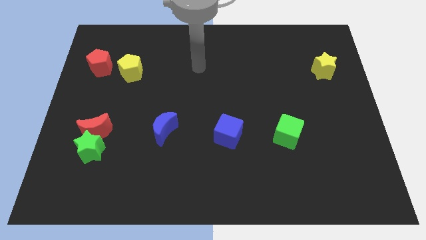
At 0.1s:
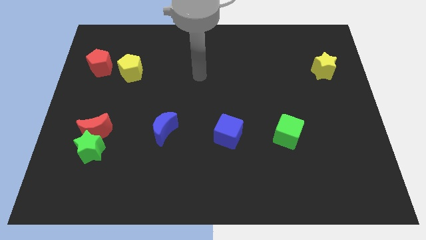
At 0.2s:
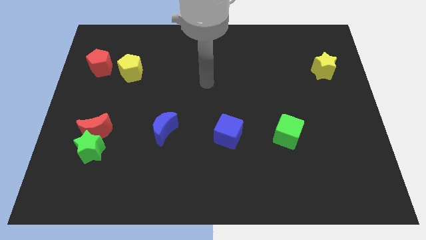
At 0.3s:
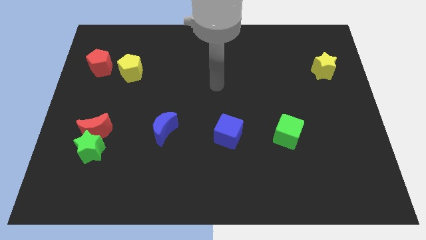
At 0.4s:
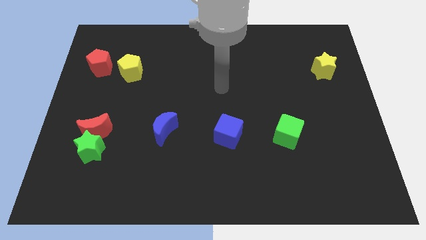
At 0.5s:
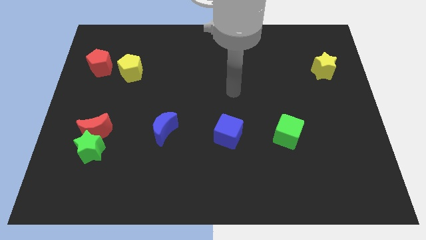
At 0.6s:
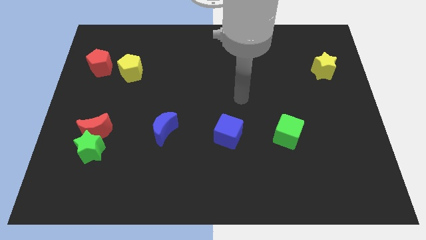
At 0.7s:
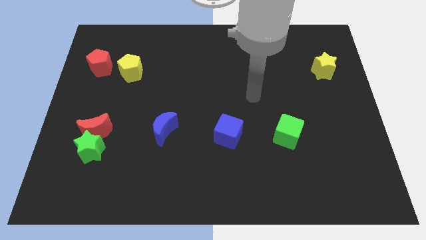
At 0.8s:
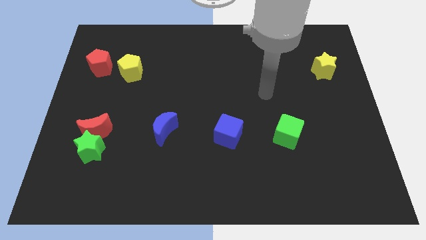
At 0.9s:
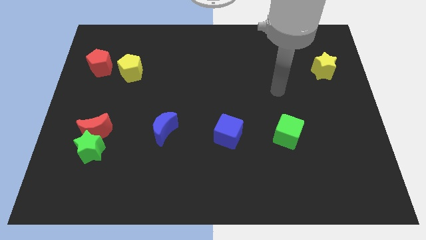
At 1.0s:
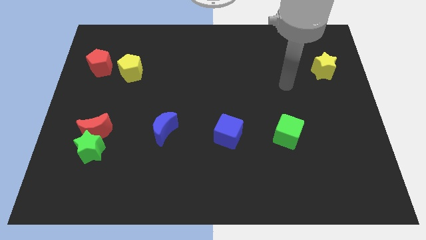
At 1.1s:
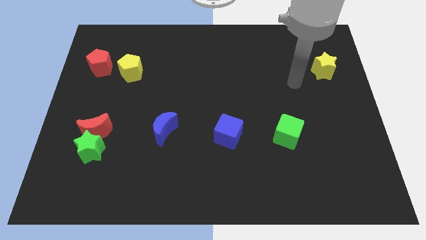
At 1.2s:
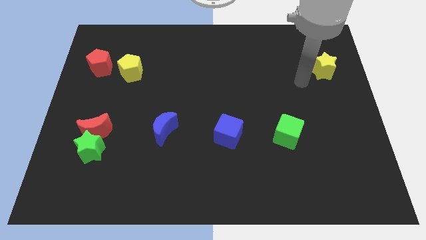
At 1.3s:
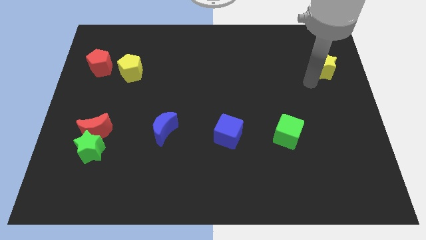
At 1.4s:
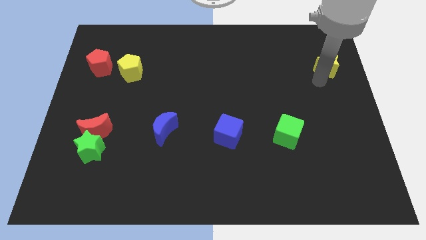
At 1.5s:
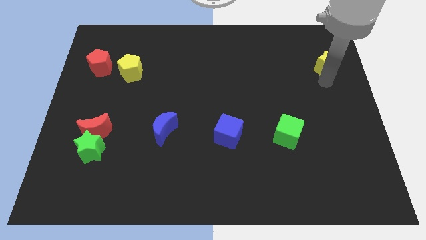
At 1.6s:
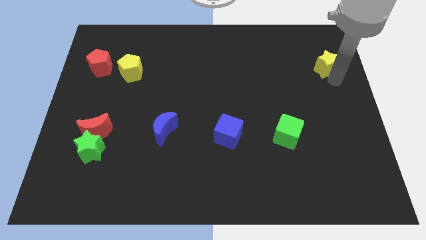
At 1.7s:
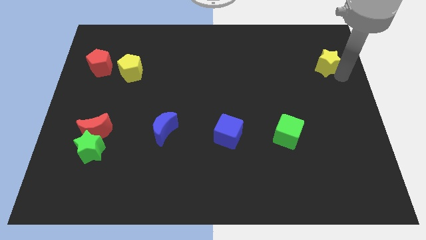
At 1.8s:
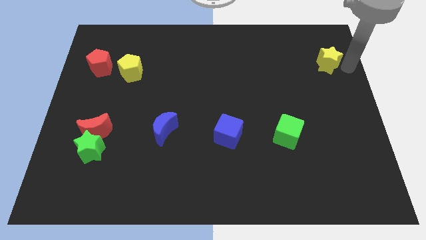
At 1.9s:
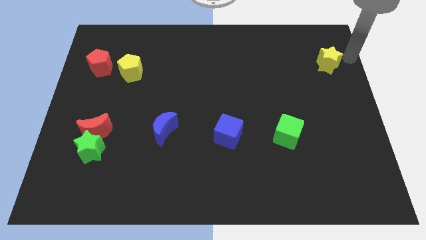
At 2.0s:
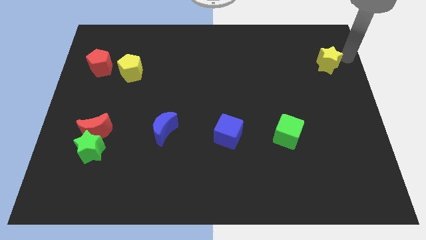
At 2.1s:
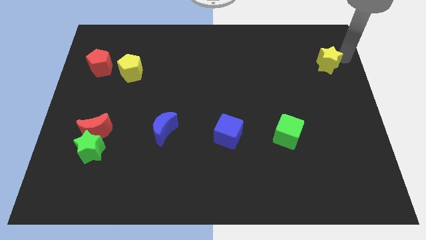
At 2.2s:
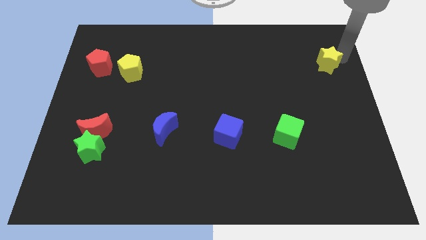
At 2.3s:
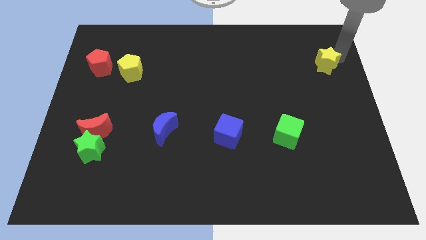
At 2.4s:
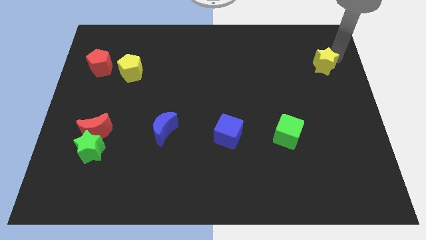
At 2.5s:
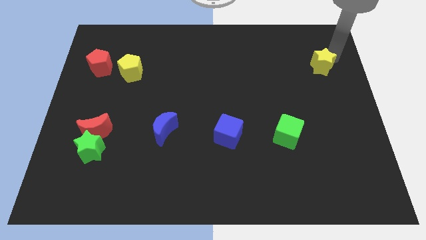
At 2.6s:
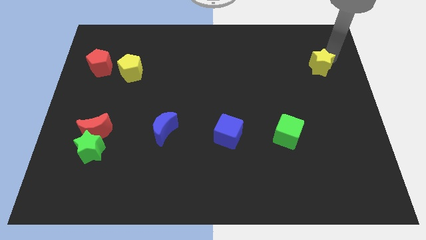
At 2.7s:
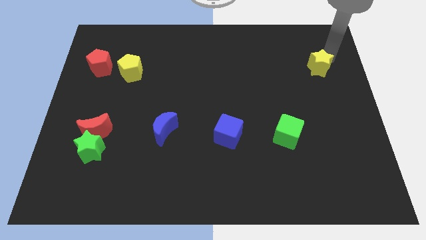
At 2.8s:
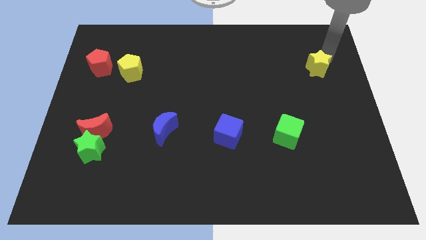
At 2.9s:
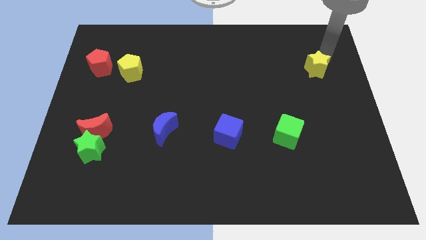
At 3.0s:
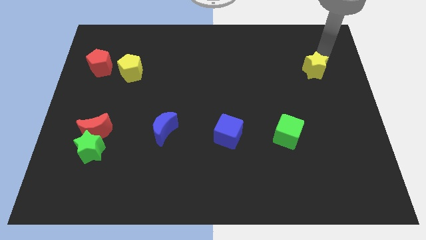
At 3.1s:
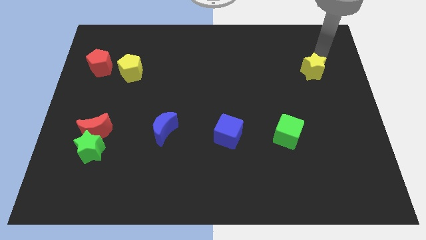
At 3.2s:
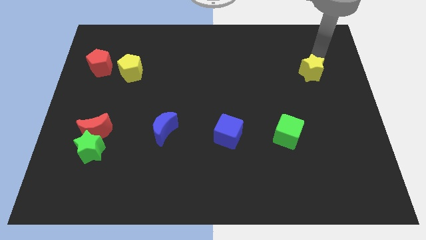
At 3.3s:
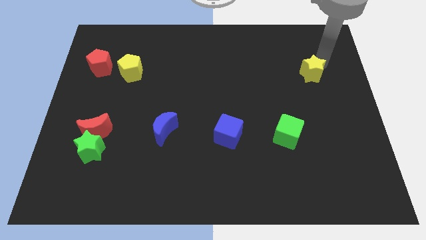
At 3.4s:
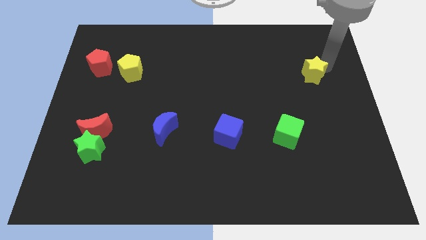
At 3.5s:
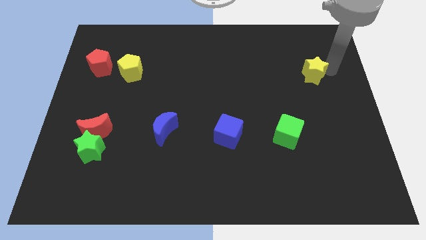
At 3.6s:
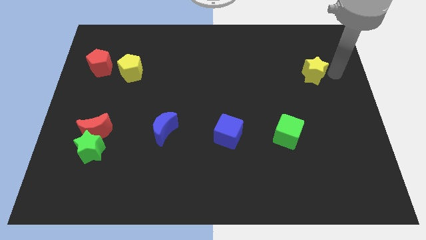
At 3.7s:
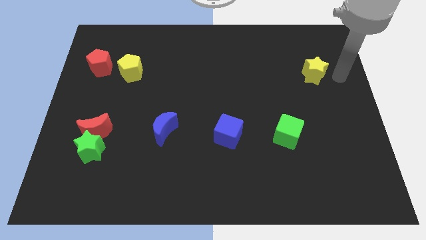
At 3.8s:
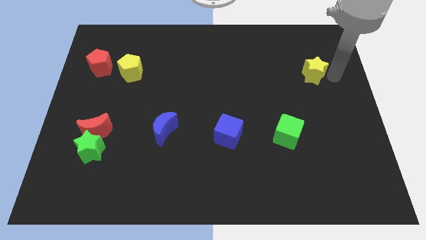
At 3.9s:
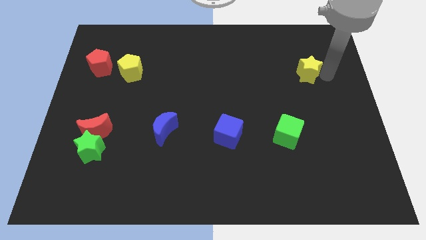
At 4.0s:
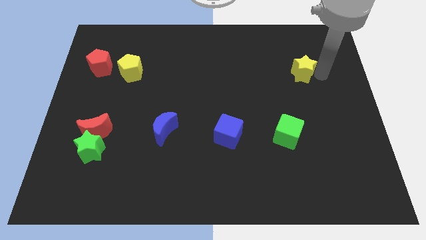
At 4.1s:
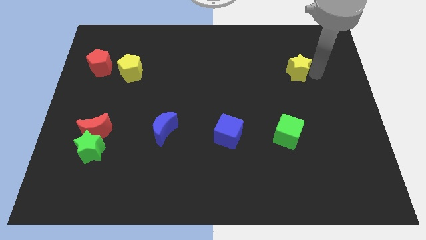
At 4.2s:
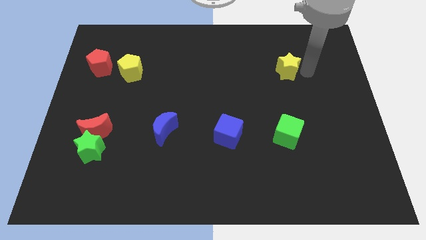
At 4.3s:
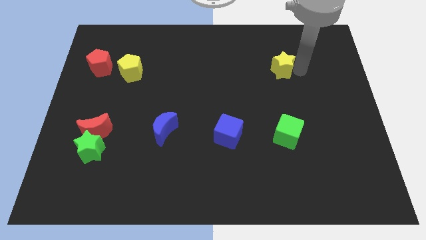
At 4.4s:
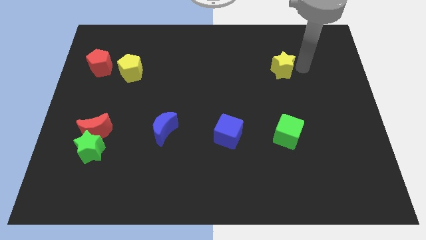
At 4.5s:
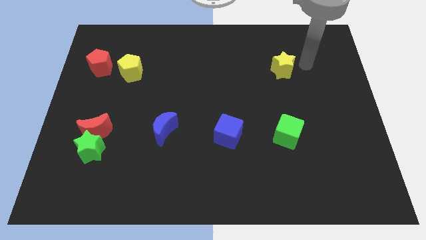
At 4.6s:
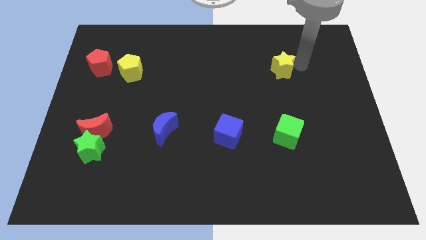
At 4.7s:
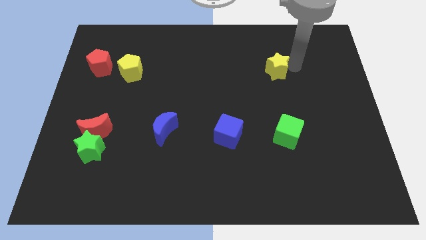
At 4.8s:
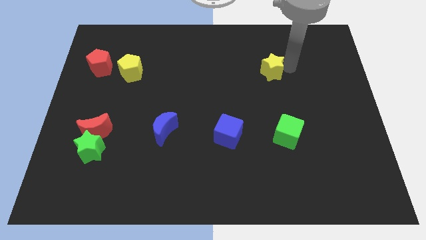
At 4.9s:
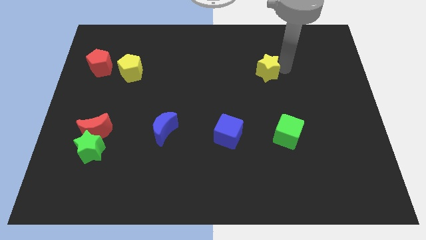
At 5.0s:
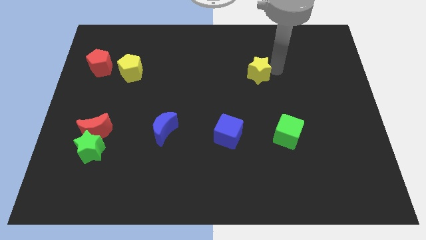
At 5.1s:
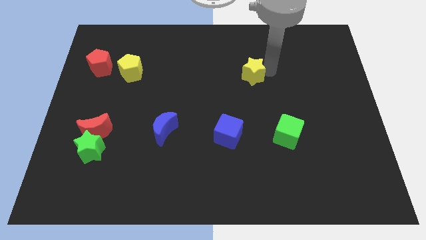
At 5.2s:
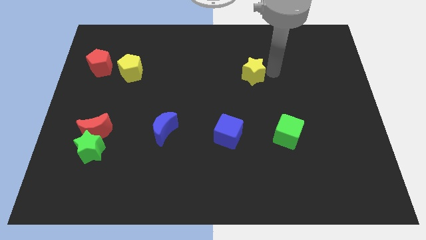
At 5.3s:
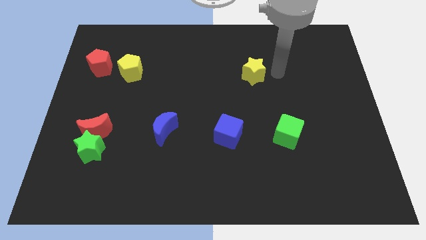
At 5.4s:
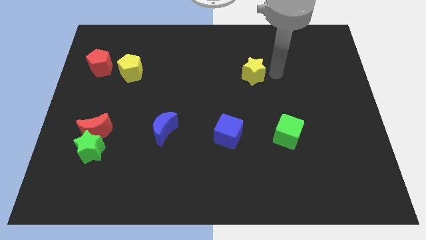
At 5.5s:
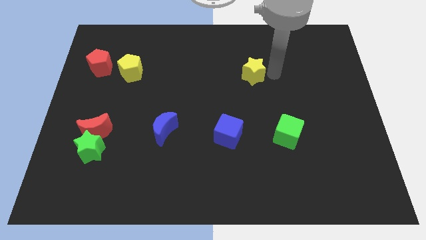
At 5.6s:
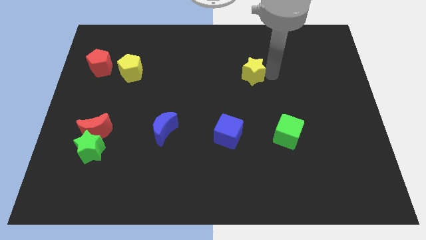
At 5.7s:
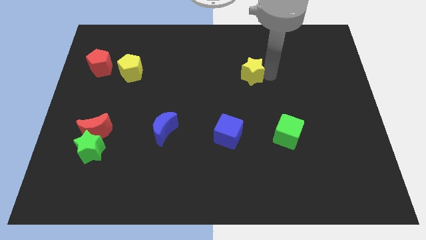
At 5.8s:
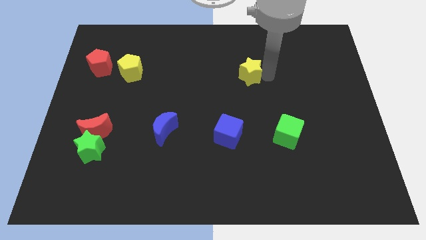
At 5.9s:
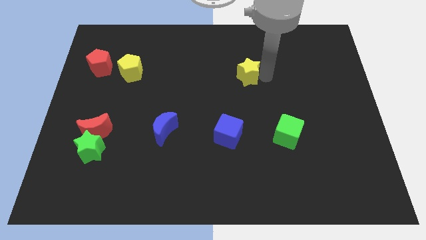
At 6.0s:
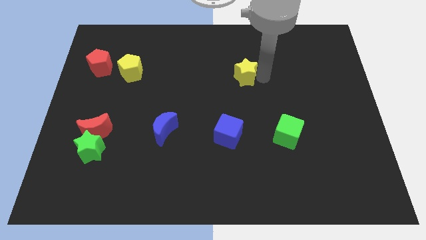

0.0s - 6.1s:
push the yellow star to the left

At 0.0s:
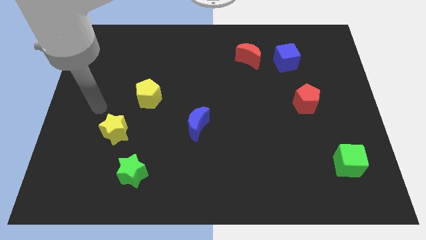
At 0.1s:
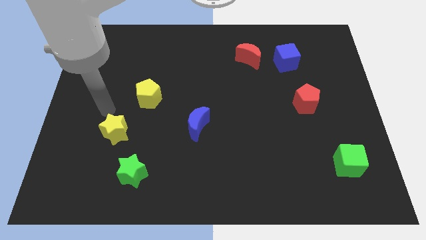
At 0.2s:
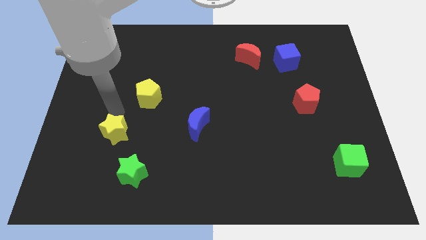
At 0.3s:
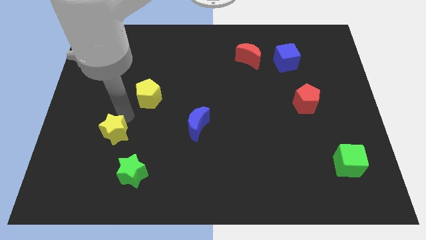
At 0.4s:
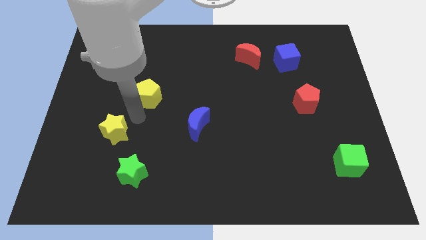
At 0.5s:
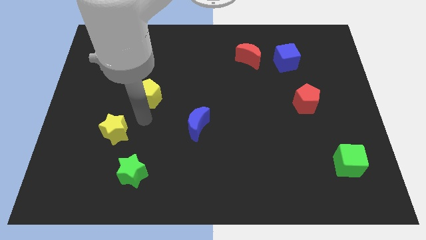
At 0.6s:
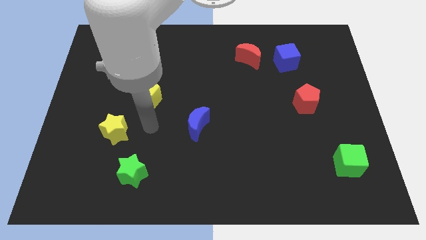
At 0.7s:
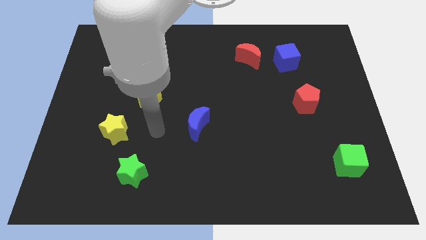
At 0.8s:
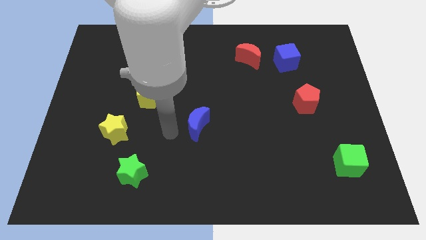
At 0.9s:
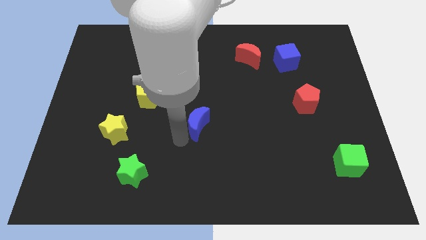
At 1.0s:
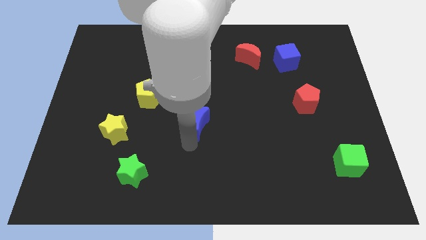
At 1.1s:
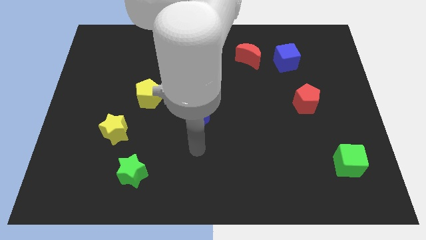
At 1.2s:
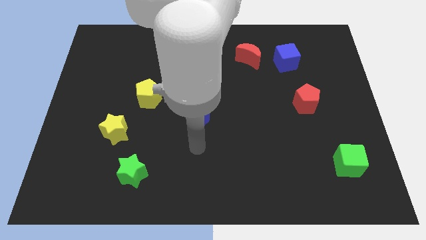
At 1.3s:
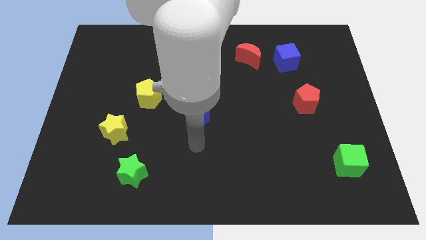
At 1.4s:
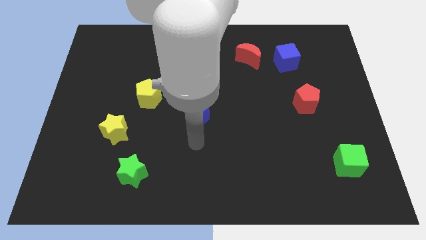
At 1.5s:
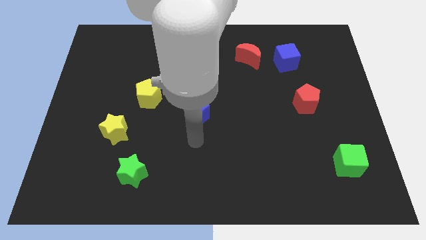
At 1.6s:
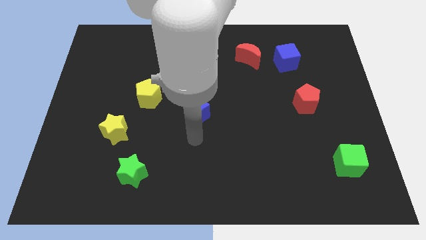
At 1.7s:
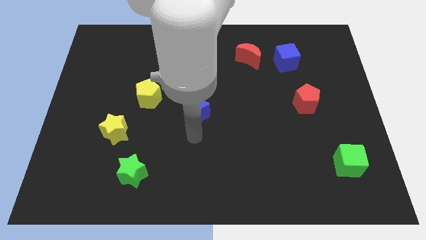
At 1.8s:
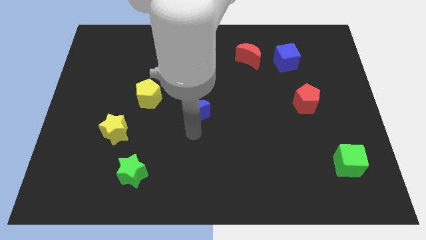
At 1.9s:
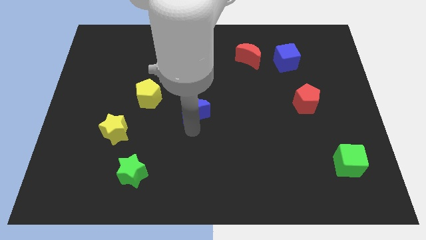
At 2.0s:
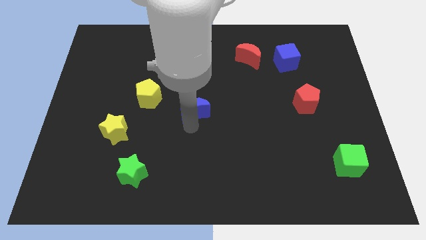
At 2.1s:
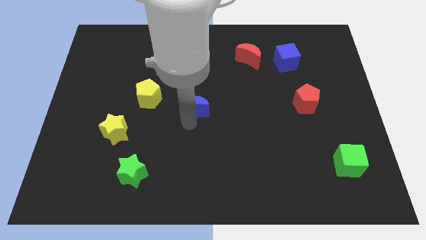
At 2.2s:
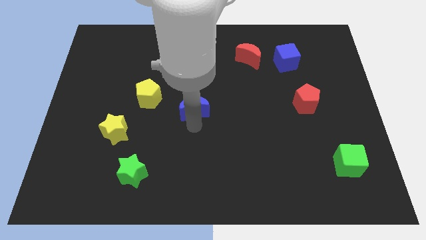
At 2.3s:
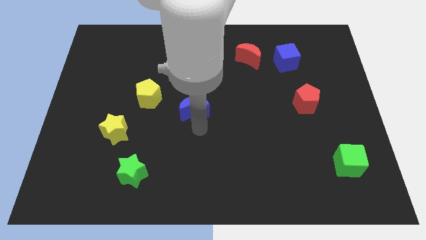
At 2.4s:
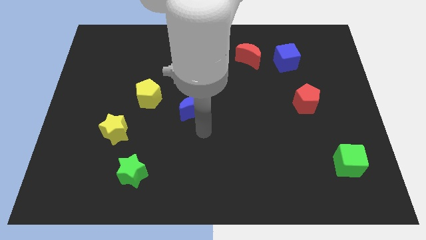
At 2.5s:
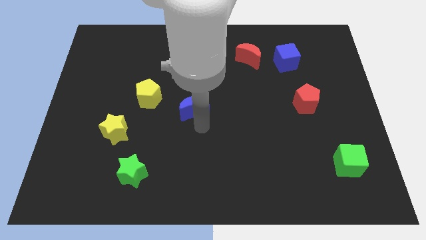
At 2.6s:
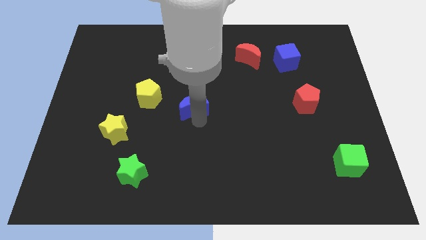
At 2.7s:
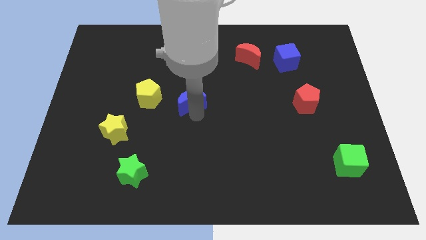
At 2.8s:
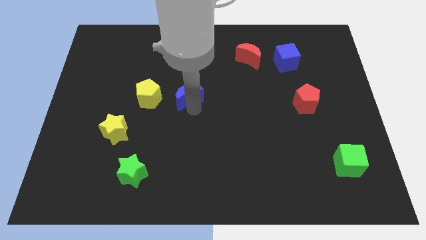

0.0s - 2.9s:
push the blue moon up and left somewhat
